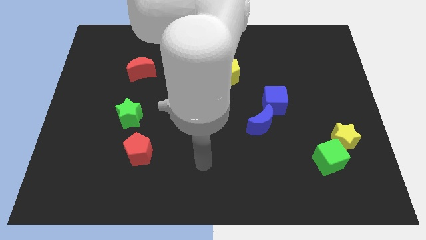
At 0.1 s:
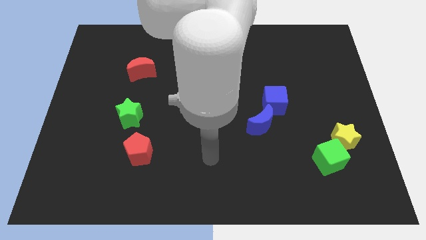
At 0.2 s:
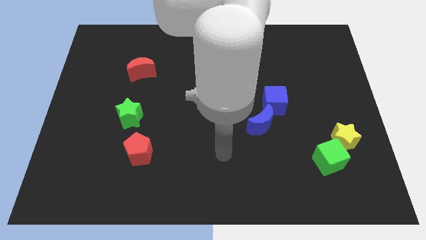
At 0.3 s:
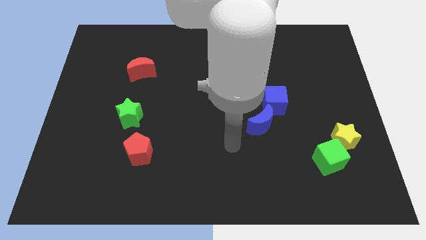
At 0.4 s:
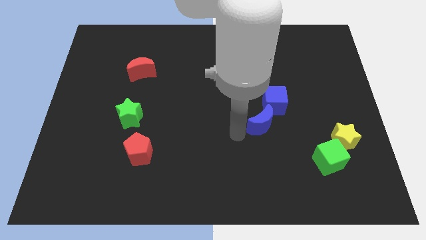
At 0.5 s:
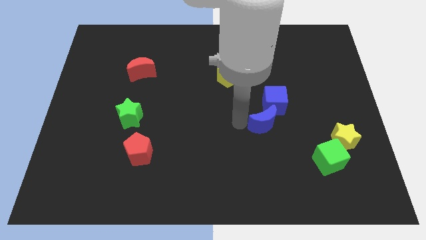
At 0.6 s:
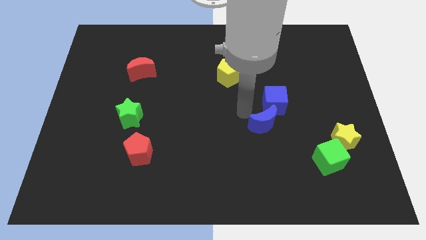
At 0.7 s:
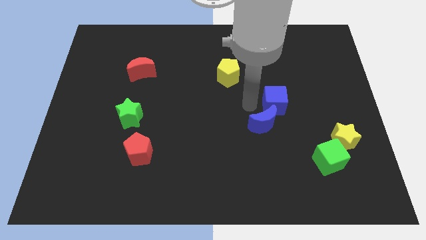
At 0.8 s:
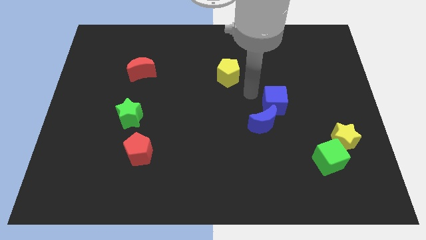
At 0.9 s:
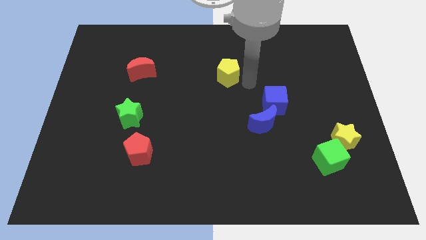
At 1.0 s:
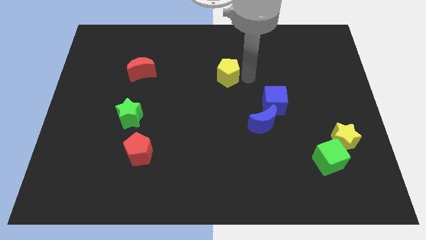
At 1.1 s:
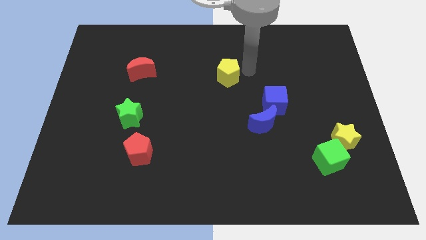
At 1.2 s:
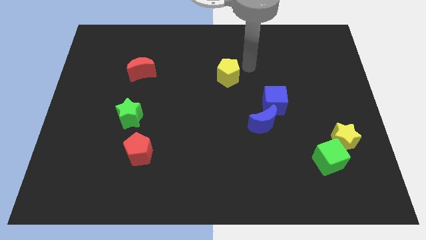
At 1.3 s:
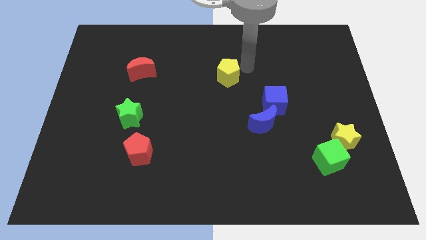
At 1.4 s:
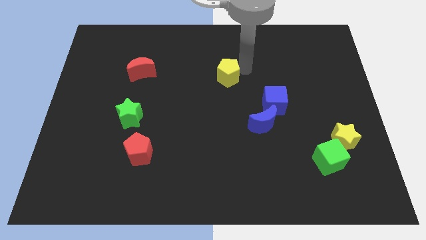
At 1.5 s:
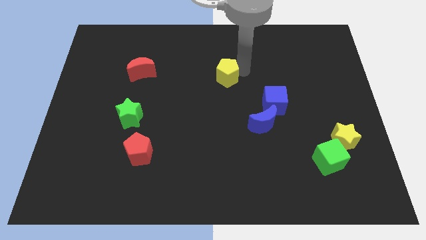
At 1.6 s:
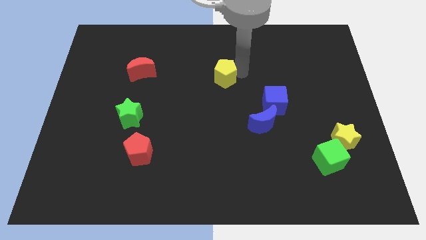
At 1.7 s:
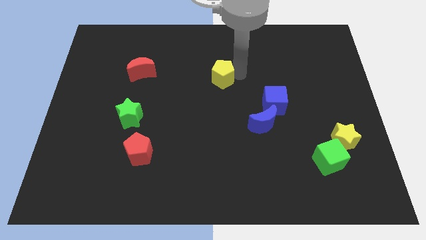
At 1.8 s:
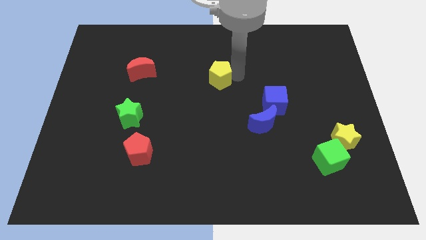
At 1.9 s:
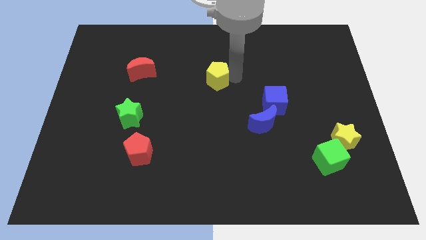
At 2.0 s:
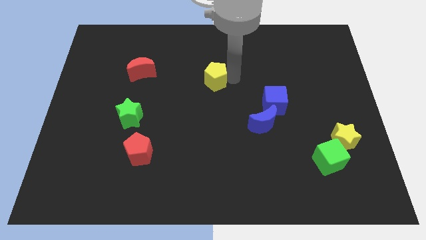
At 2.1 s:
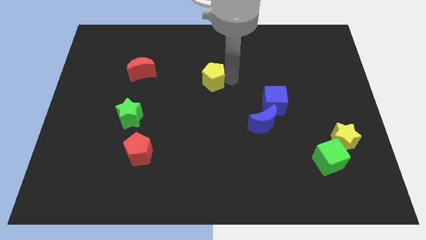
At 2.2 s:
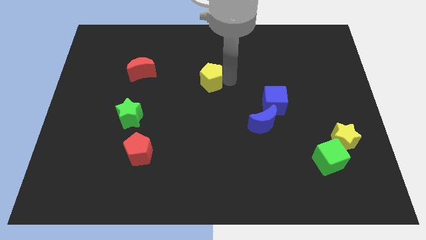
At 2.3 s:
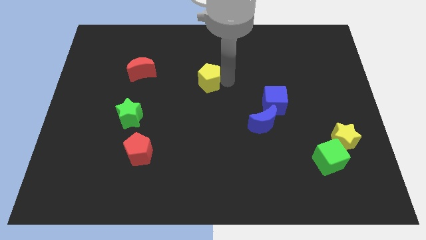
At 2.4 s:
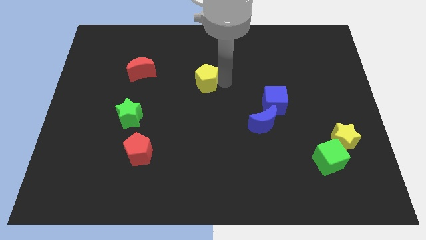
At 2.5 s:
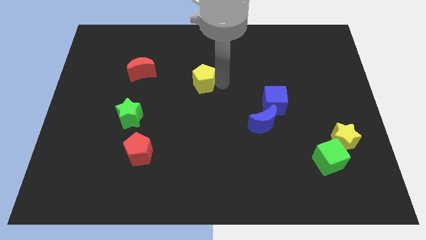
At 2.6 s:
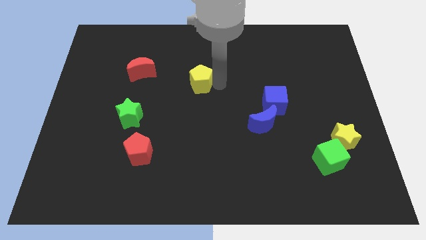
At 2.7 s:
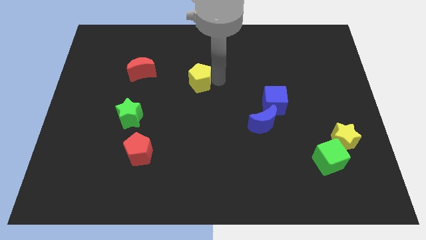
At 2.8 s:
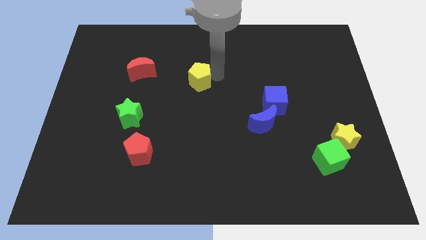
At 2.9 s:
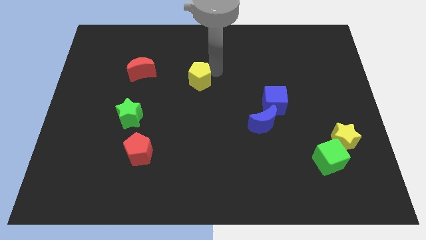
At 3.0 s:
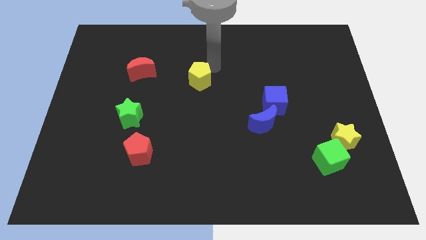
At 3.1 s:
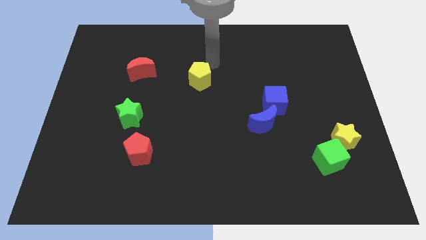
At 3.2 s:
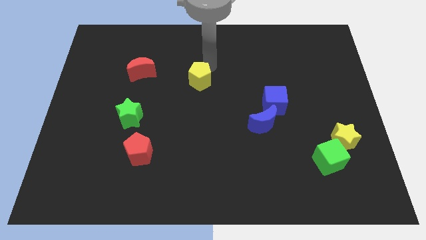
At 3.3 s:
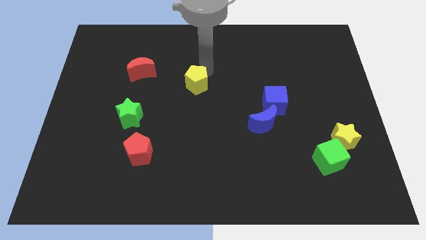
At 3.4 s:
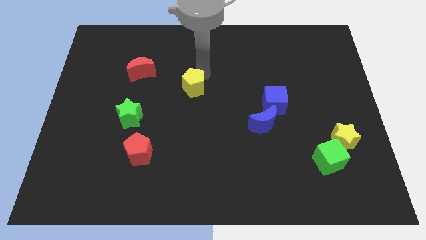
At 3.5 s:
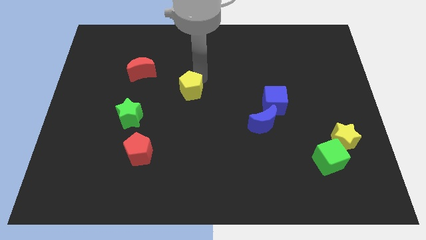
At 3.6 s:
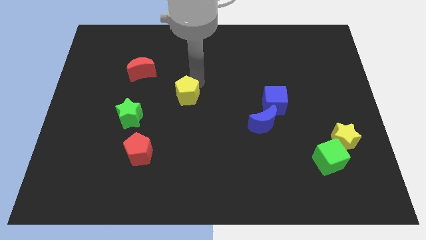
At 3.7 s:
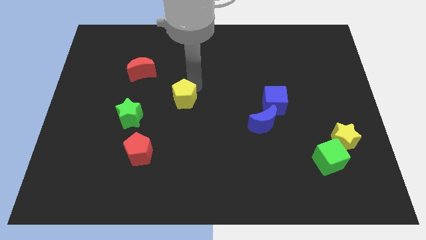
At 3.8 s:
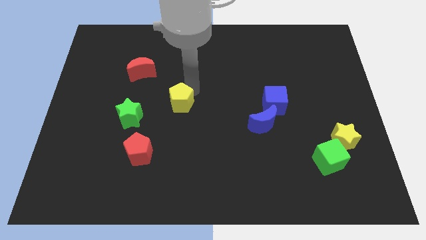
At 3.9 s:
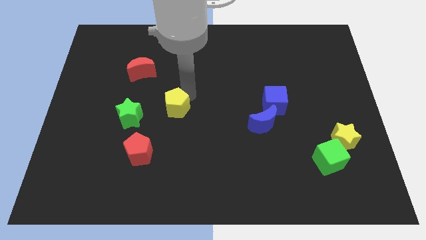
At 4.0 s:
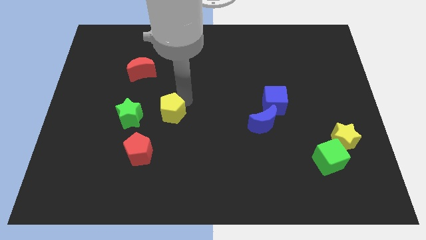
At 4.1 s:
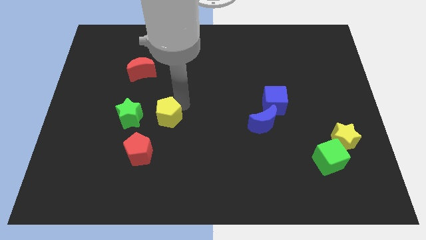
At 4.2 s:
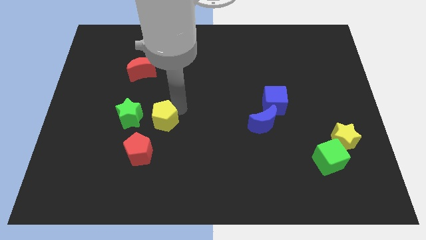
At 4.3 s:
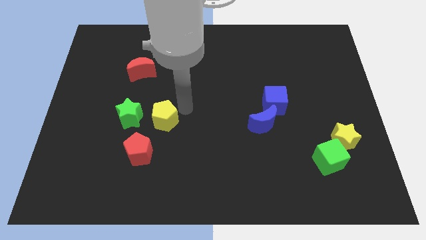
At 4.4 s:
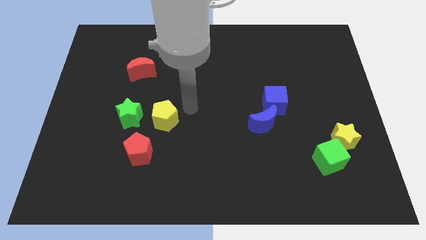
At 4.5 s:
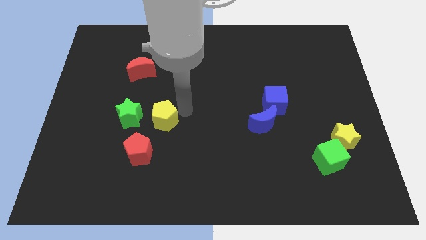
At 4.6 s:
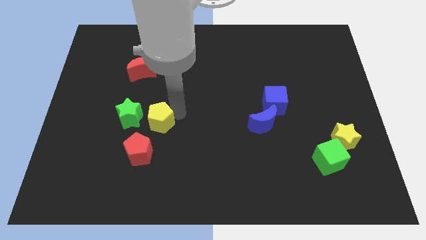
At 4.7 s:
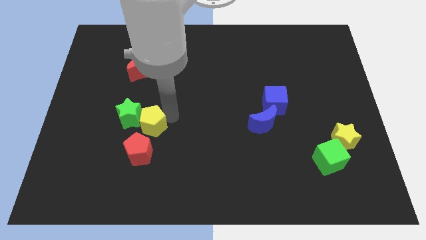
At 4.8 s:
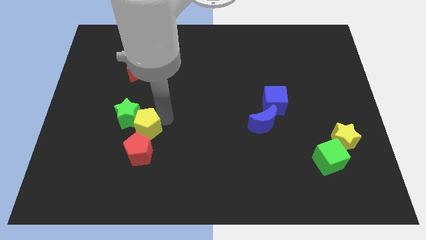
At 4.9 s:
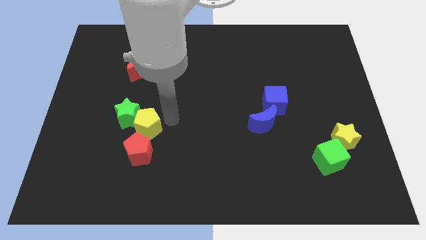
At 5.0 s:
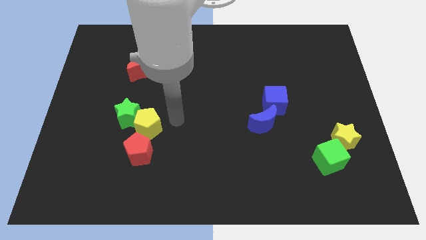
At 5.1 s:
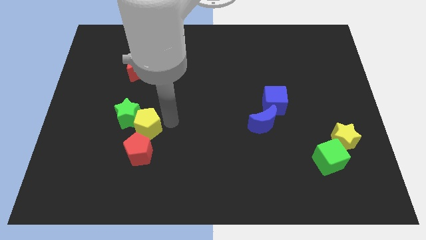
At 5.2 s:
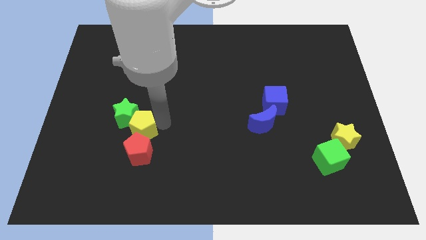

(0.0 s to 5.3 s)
move the yellow pentagon diagonally up and to the left of the red pentagon

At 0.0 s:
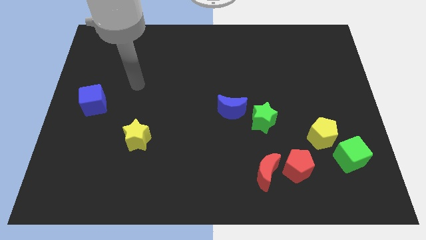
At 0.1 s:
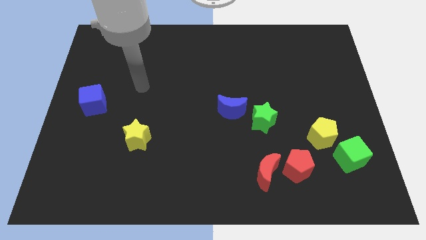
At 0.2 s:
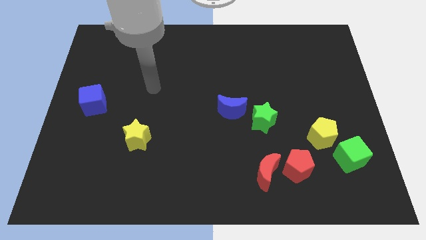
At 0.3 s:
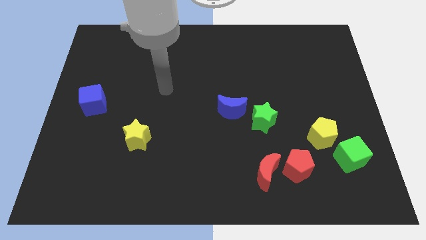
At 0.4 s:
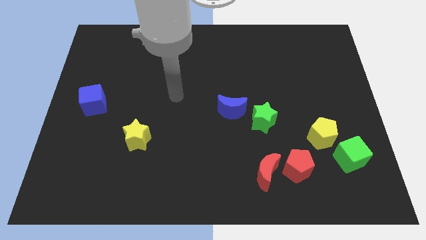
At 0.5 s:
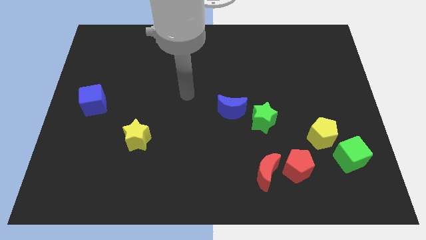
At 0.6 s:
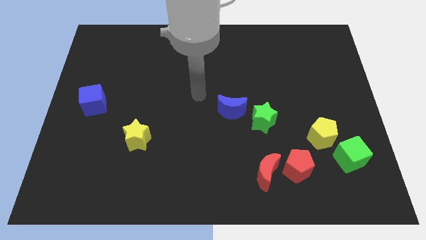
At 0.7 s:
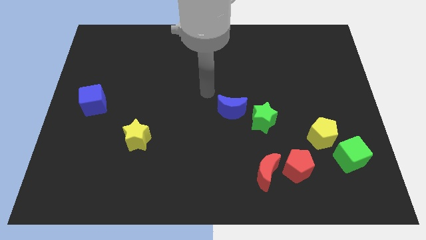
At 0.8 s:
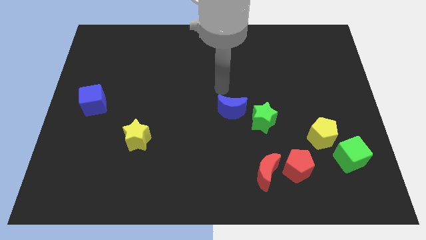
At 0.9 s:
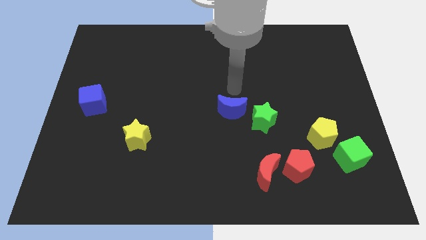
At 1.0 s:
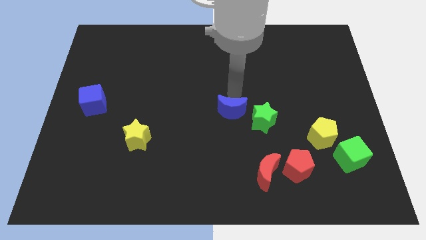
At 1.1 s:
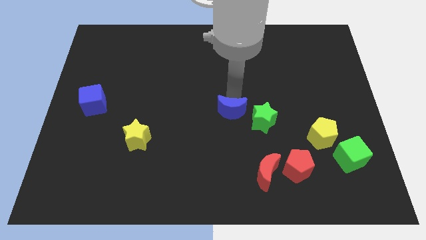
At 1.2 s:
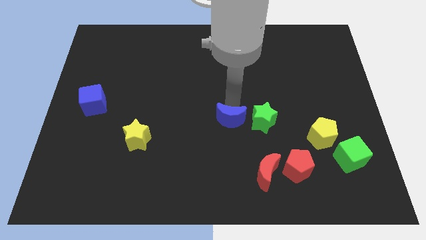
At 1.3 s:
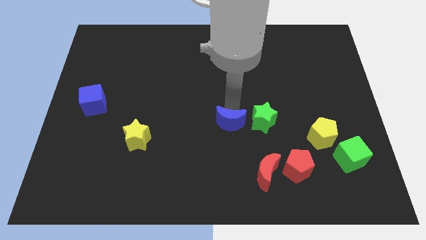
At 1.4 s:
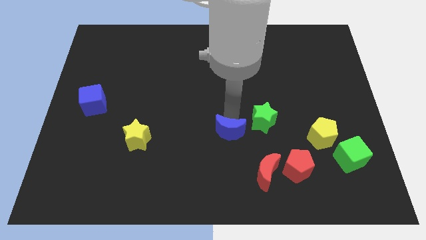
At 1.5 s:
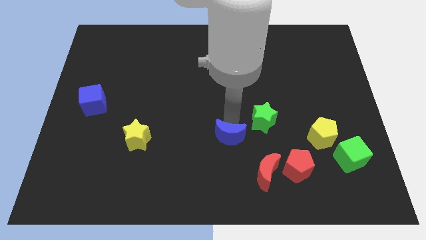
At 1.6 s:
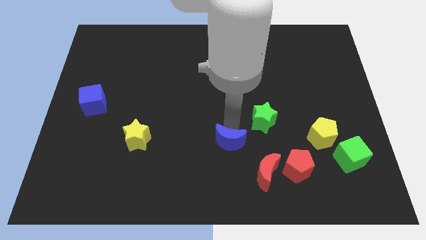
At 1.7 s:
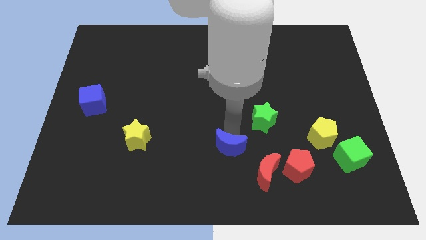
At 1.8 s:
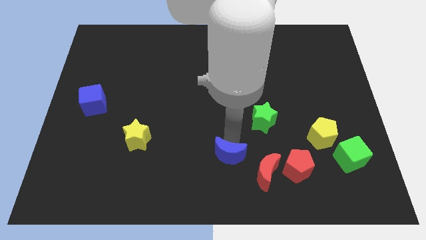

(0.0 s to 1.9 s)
move the blue moon to the left side of the red moon
